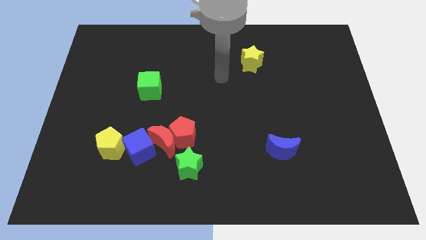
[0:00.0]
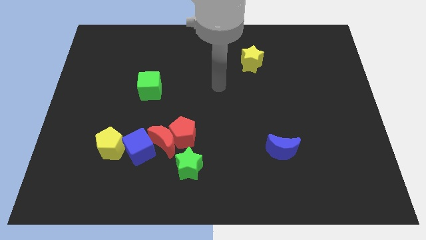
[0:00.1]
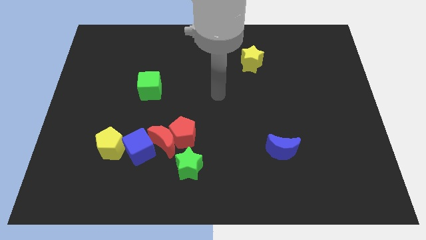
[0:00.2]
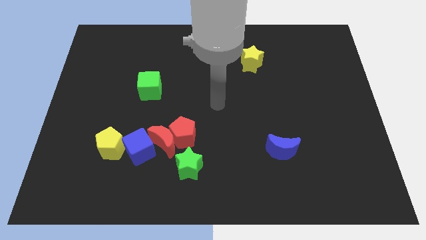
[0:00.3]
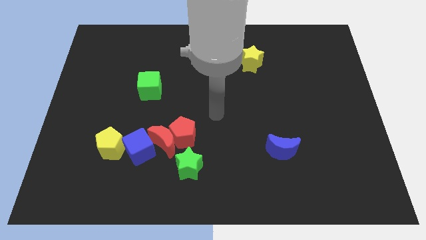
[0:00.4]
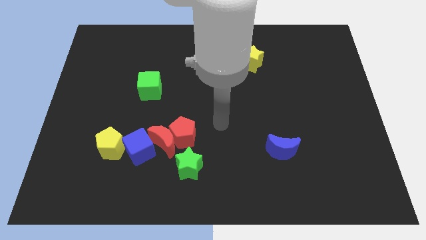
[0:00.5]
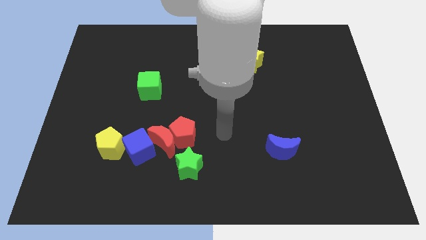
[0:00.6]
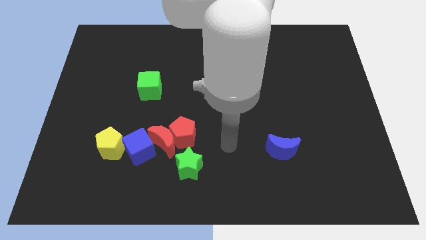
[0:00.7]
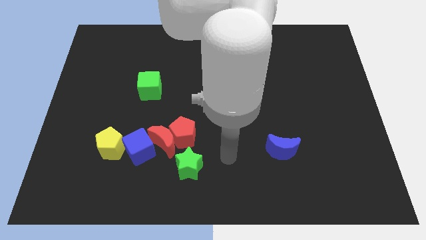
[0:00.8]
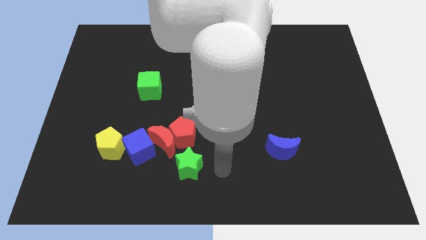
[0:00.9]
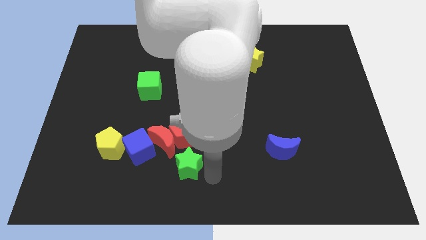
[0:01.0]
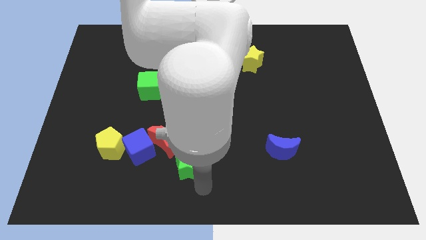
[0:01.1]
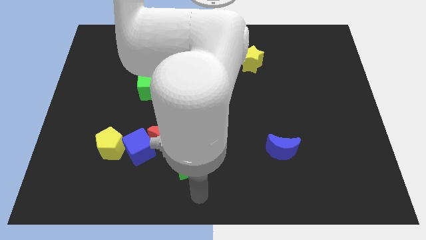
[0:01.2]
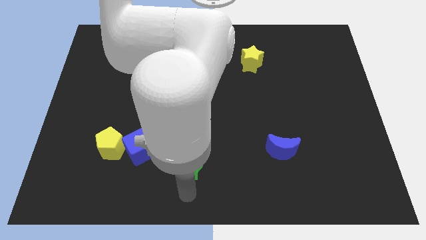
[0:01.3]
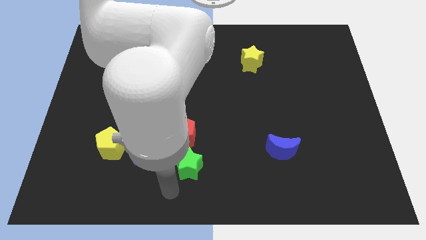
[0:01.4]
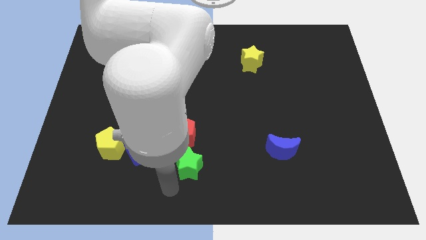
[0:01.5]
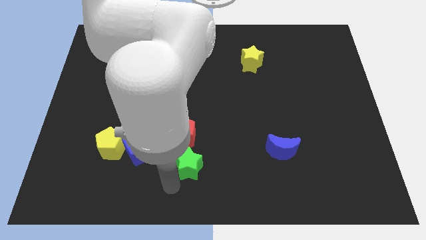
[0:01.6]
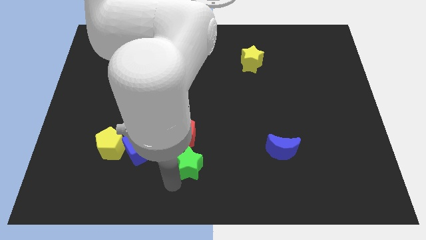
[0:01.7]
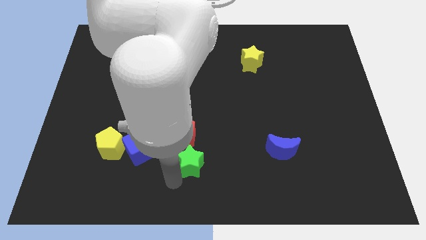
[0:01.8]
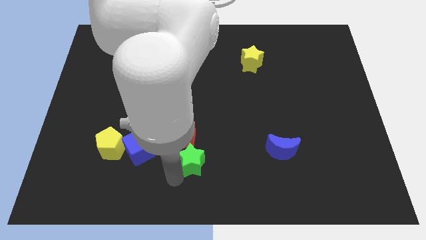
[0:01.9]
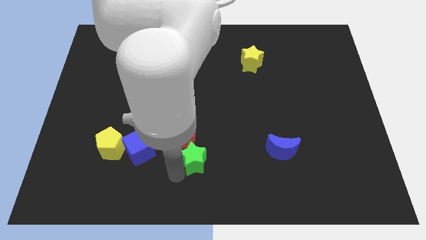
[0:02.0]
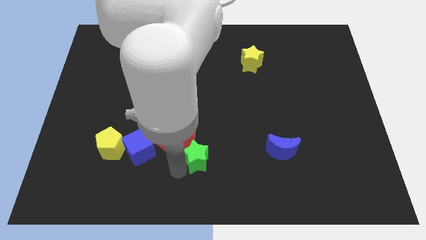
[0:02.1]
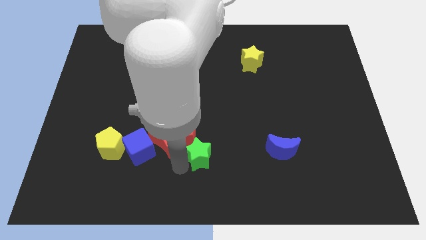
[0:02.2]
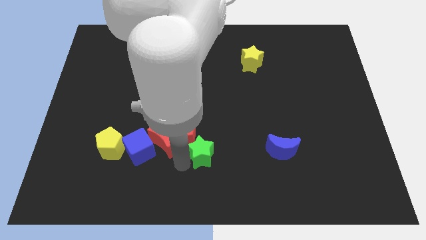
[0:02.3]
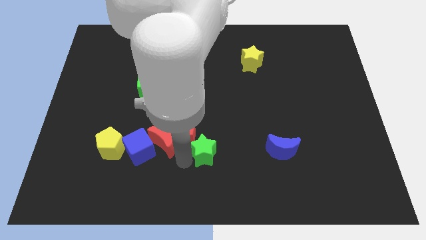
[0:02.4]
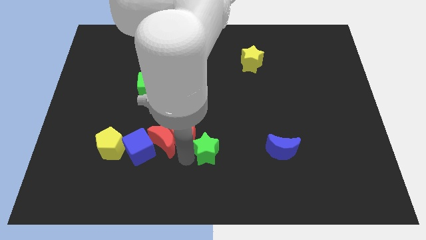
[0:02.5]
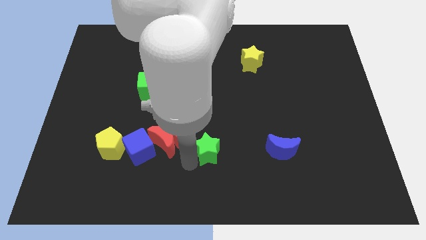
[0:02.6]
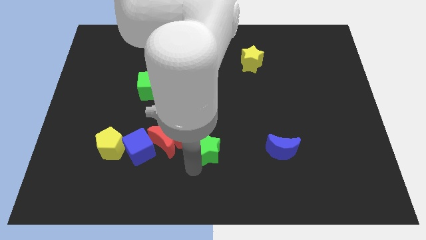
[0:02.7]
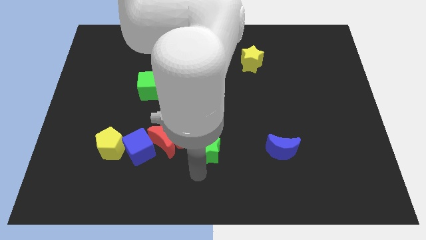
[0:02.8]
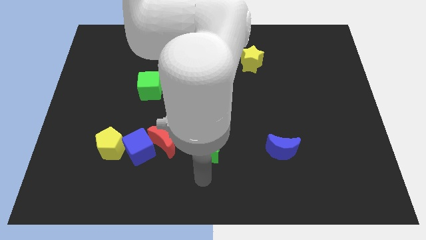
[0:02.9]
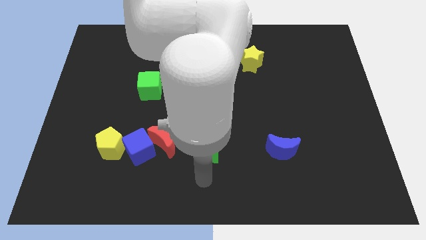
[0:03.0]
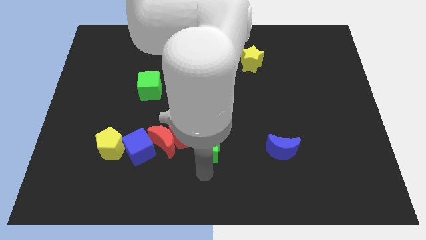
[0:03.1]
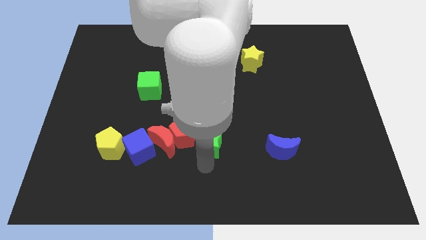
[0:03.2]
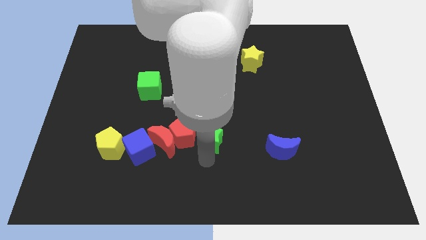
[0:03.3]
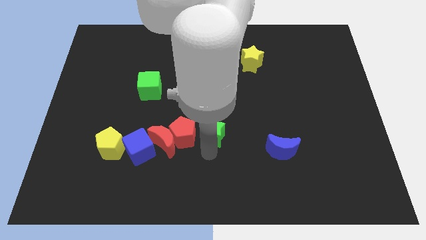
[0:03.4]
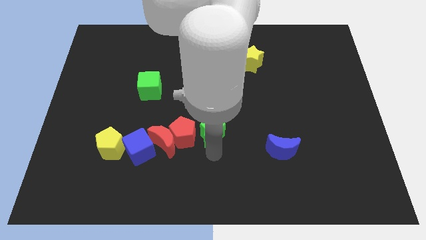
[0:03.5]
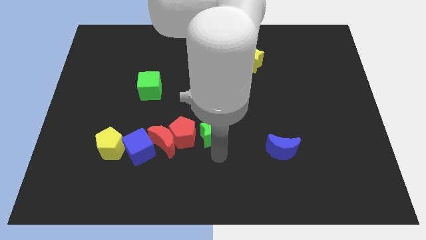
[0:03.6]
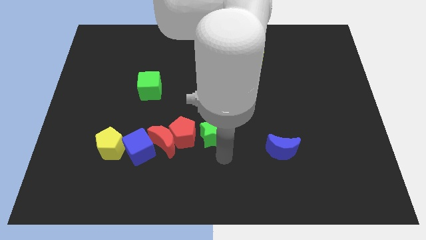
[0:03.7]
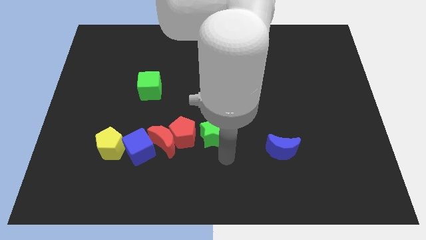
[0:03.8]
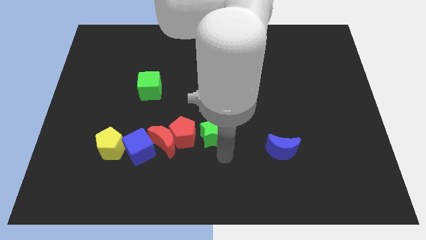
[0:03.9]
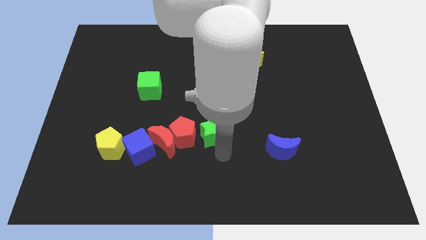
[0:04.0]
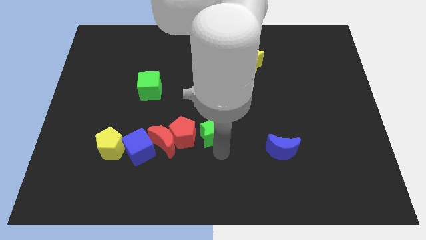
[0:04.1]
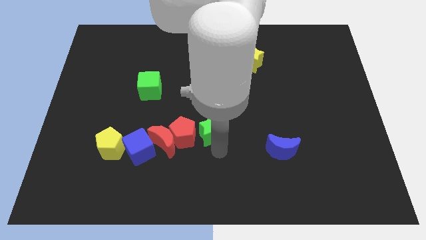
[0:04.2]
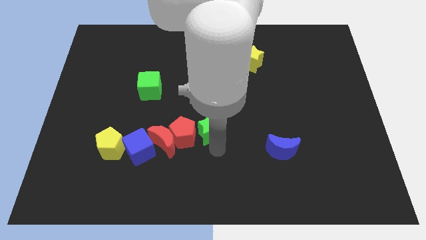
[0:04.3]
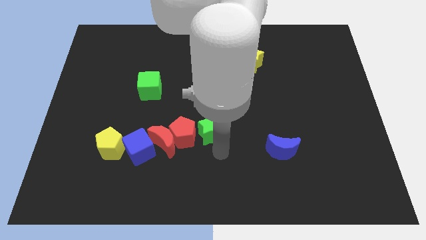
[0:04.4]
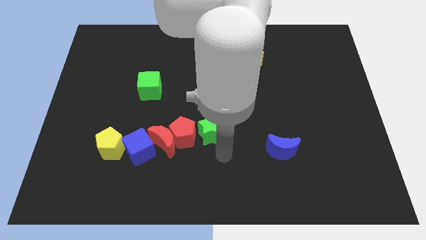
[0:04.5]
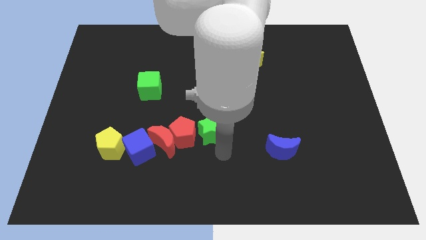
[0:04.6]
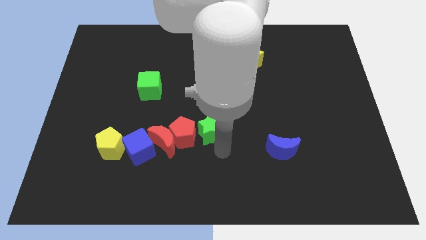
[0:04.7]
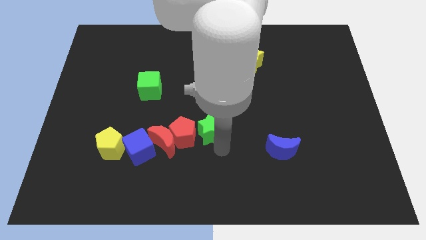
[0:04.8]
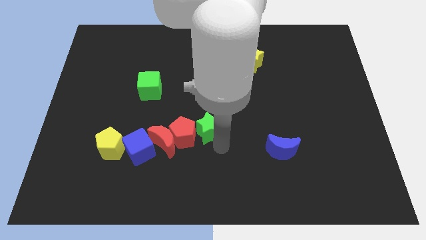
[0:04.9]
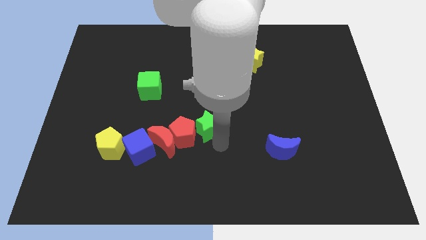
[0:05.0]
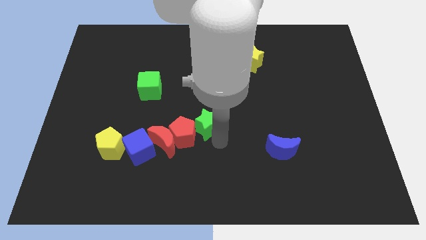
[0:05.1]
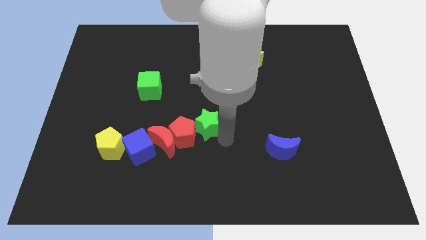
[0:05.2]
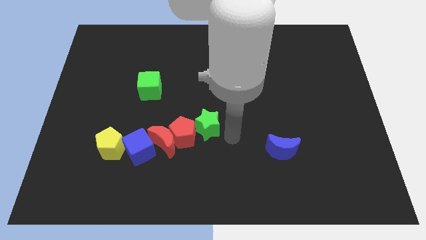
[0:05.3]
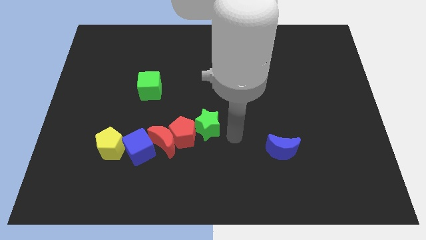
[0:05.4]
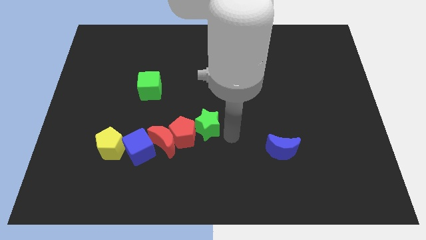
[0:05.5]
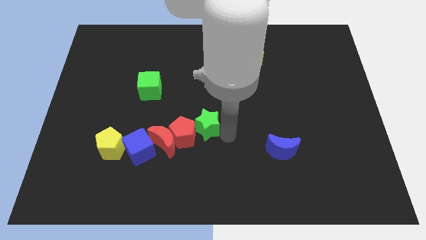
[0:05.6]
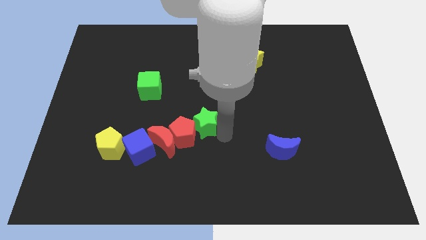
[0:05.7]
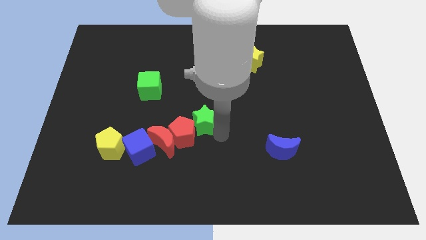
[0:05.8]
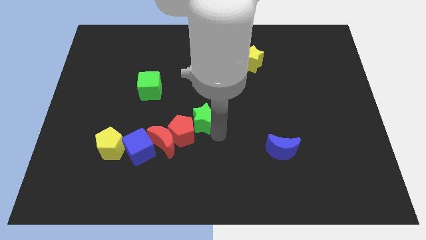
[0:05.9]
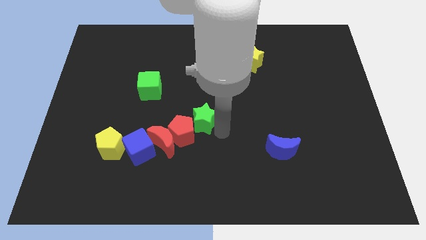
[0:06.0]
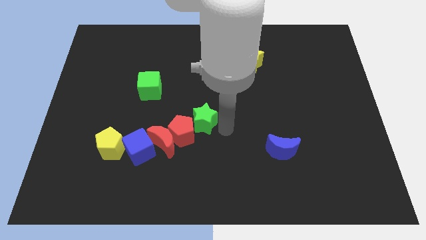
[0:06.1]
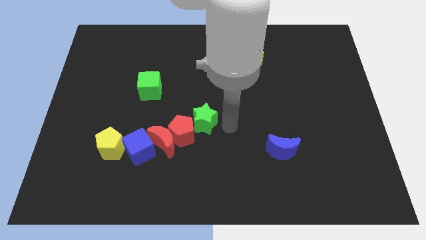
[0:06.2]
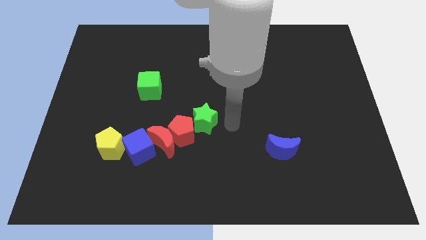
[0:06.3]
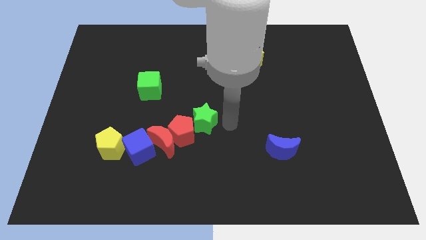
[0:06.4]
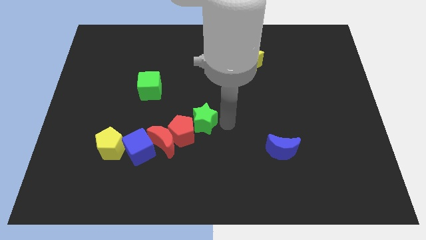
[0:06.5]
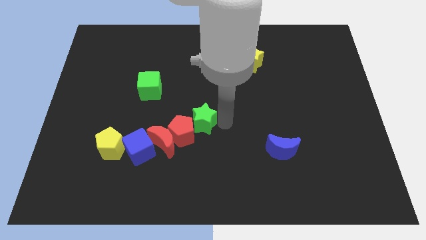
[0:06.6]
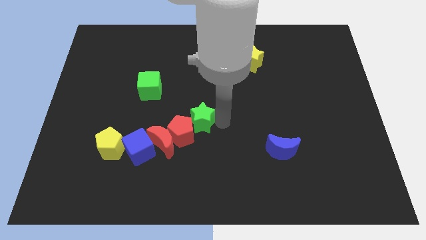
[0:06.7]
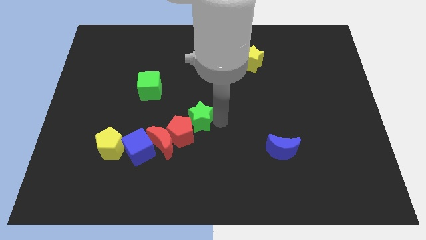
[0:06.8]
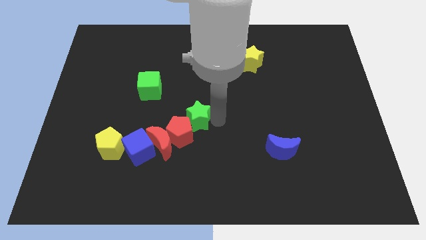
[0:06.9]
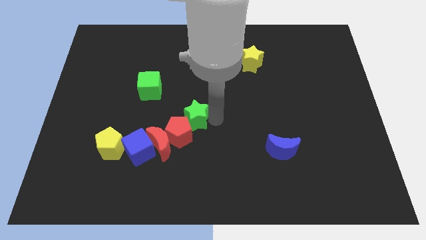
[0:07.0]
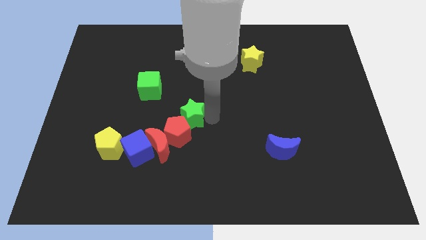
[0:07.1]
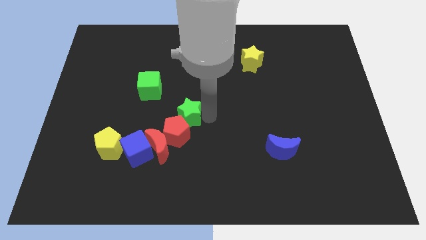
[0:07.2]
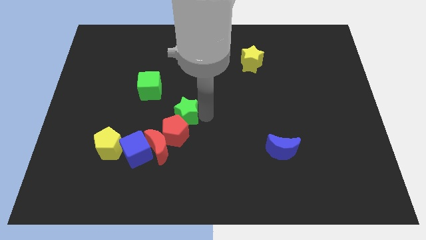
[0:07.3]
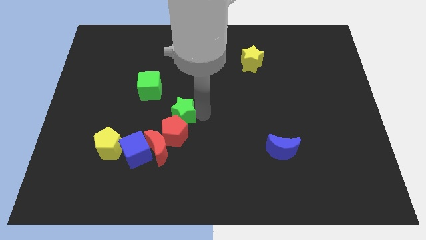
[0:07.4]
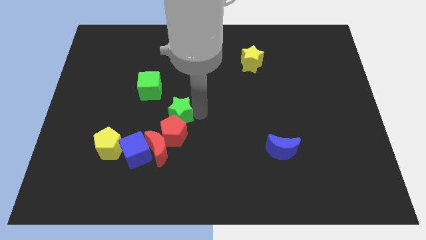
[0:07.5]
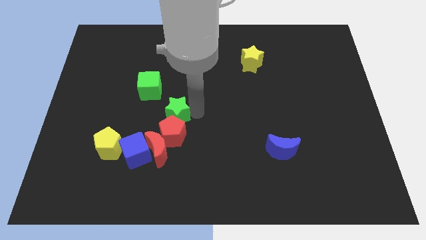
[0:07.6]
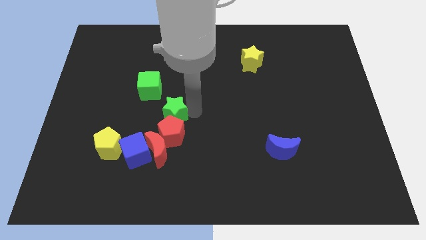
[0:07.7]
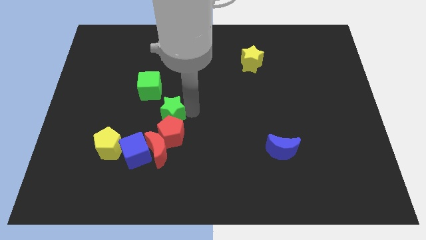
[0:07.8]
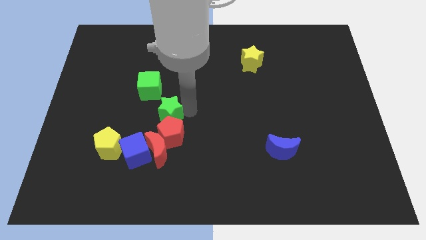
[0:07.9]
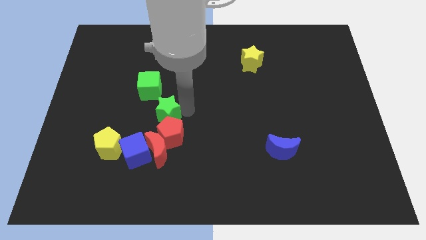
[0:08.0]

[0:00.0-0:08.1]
put the green star to the bottom side of the green cube
